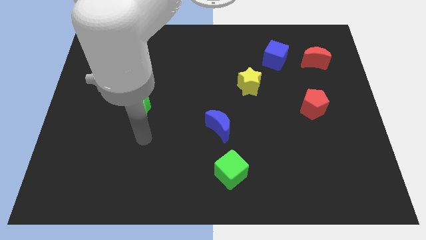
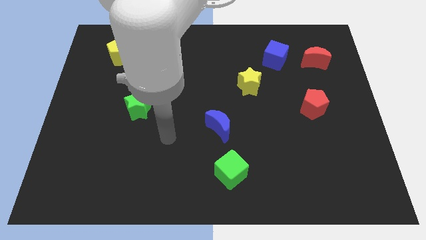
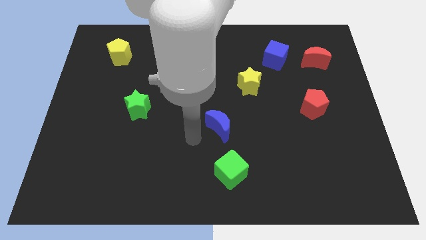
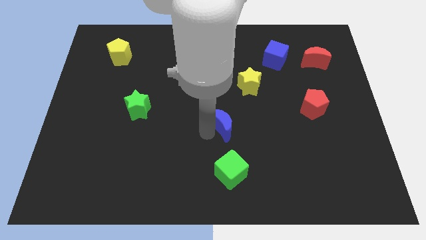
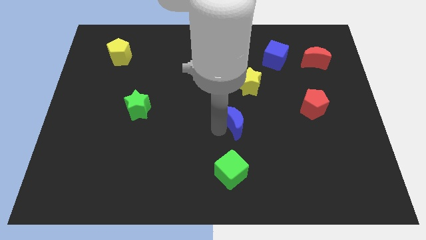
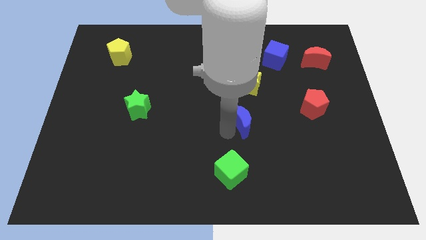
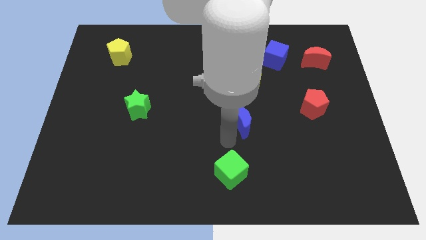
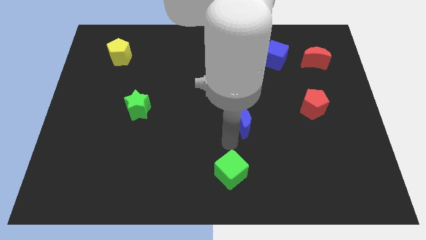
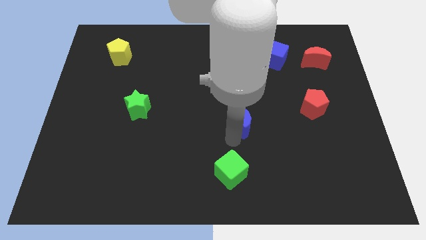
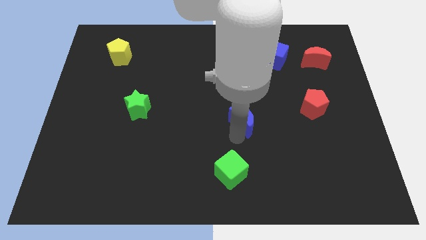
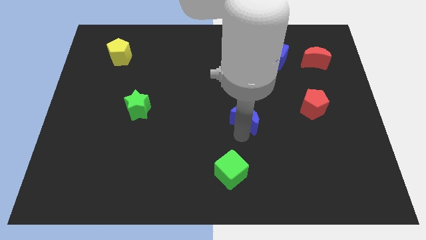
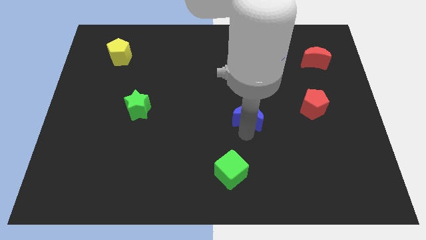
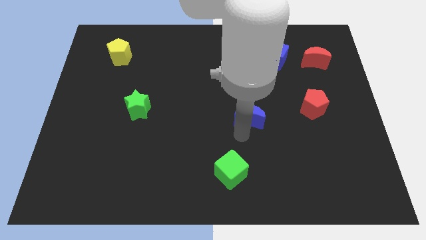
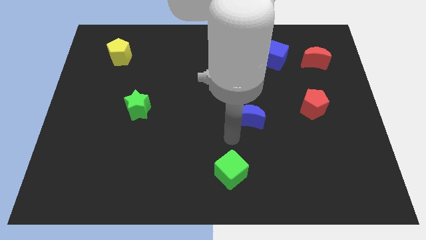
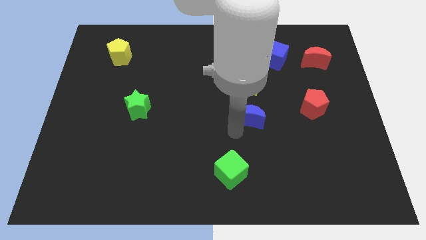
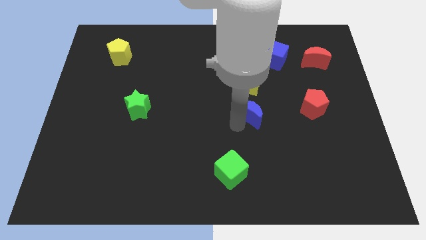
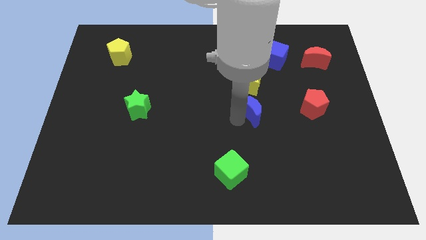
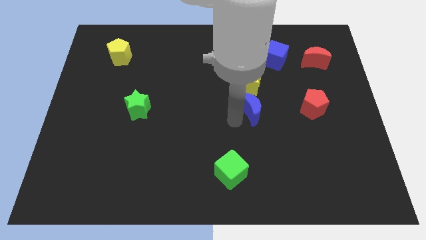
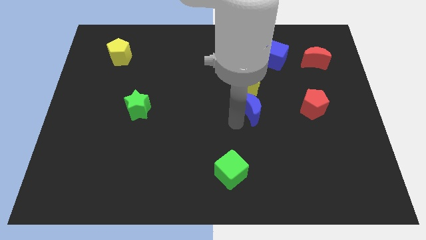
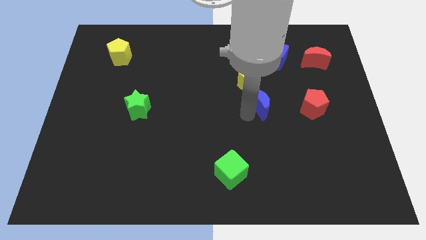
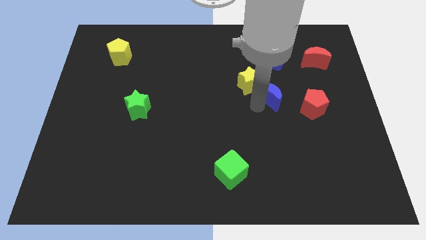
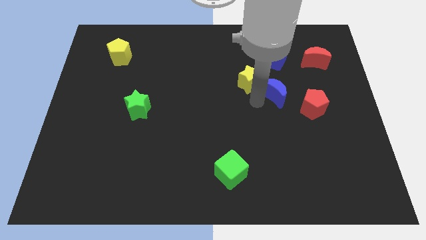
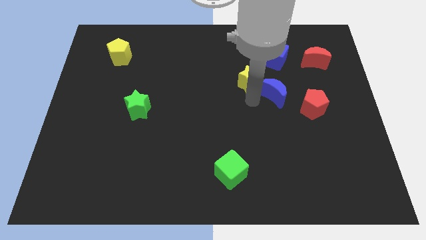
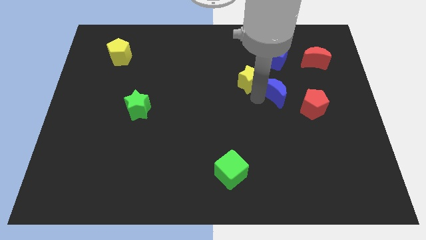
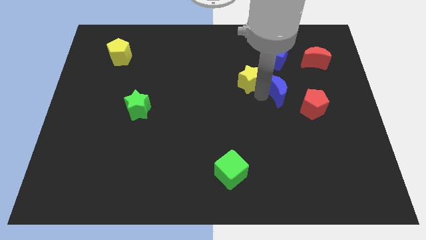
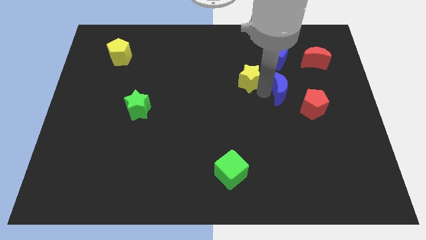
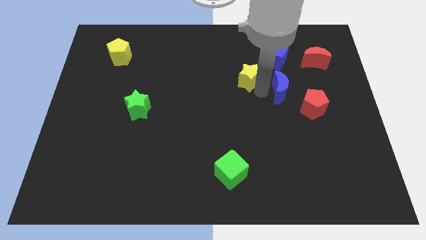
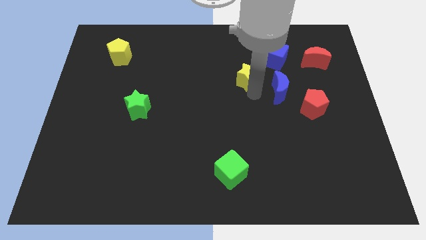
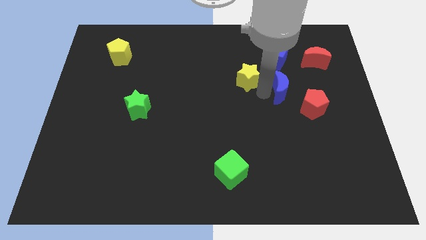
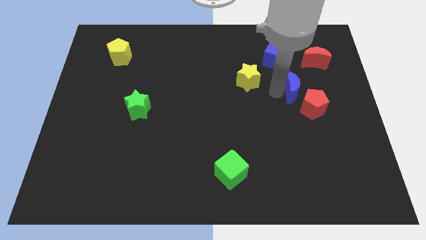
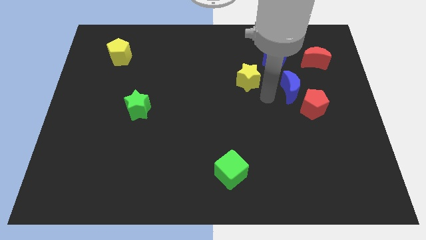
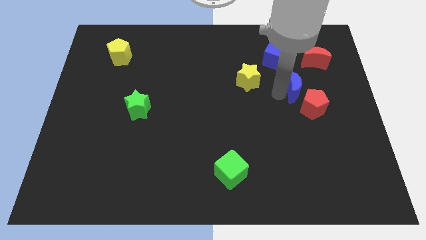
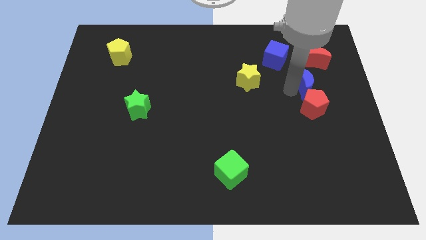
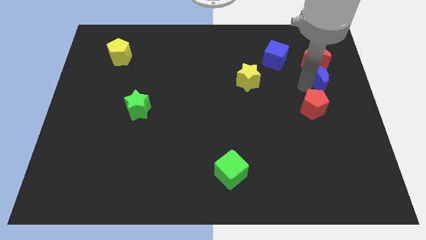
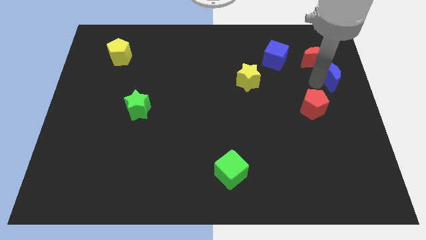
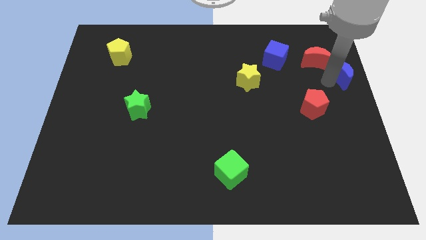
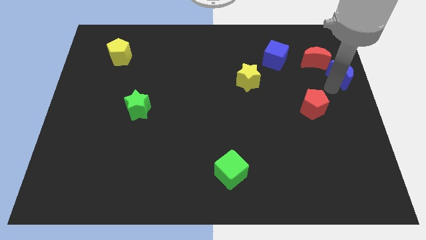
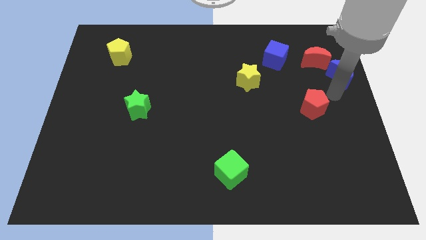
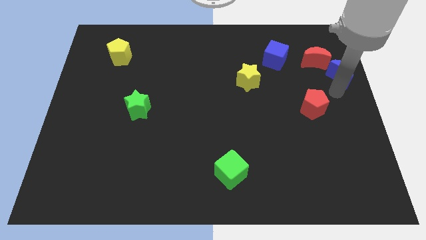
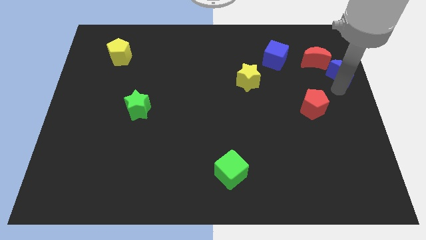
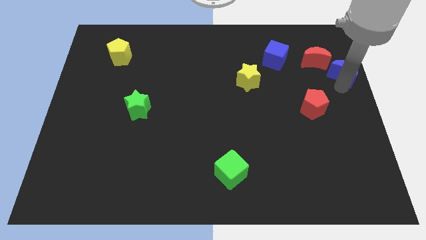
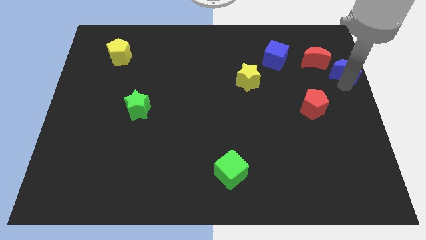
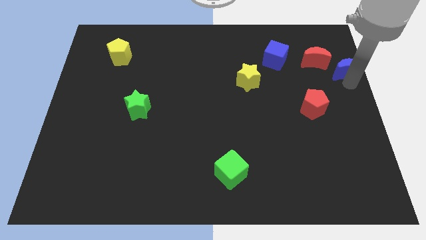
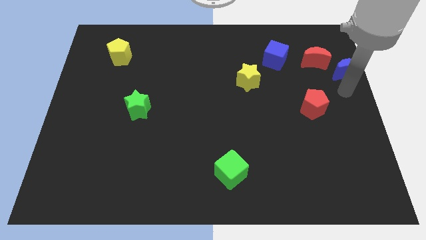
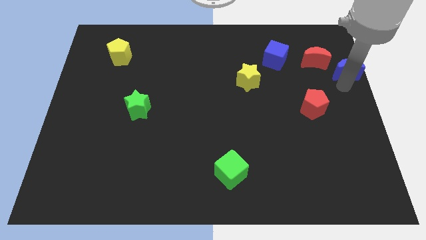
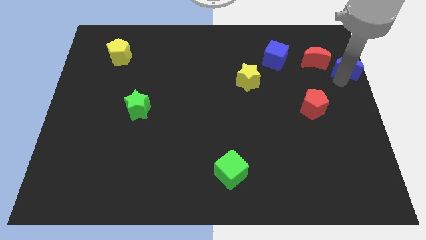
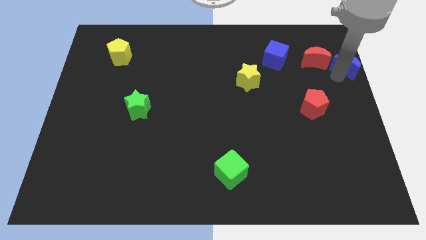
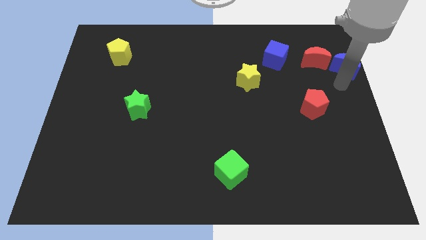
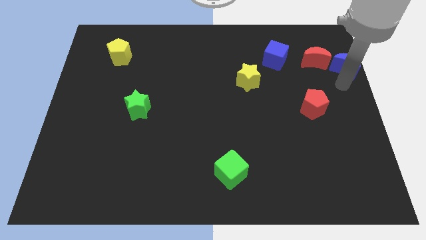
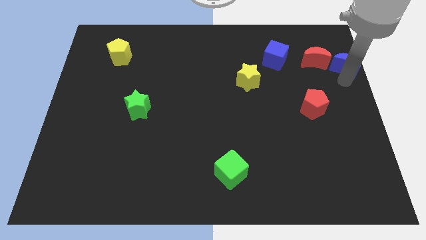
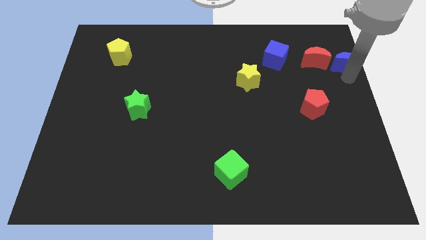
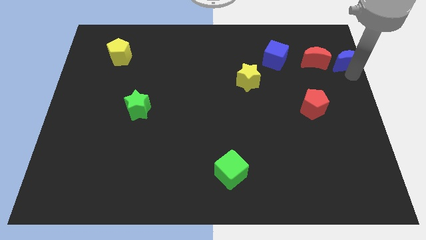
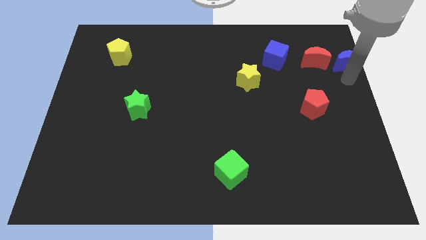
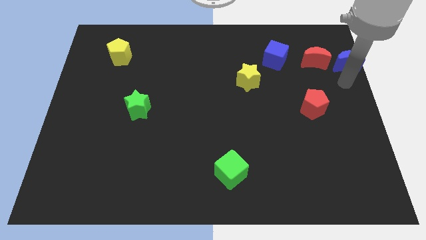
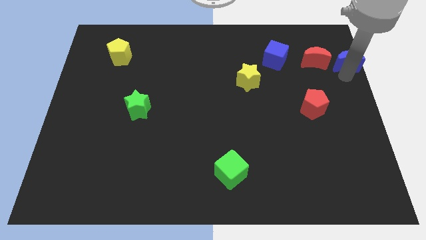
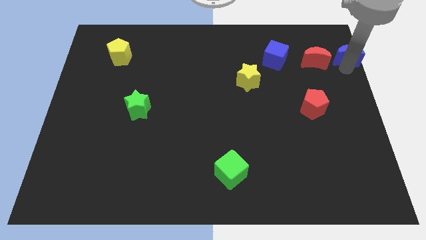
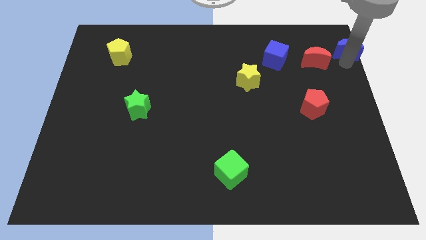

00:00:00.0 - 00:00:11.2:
put the blue moon to the top right

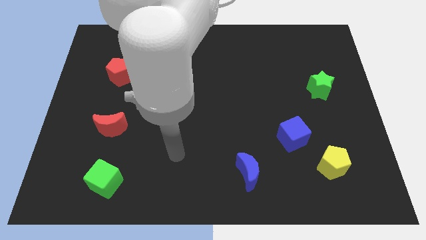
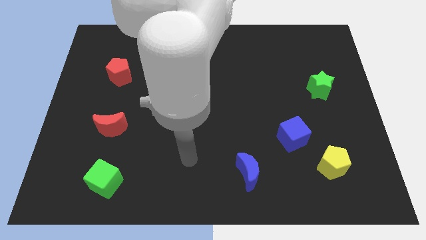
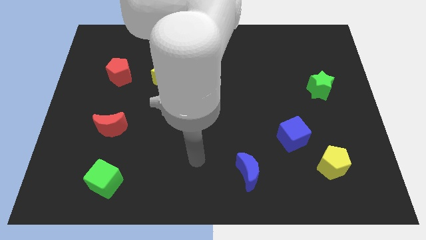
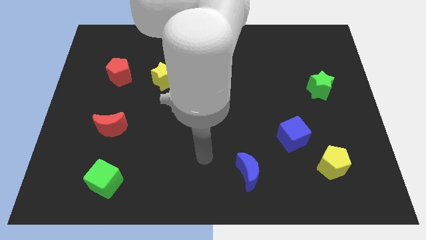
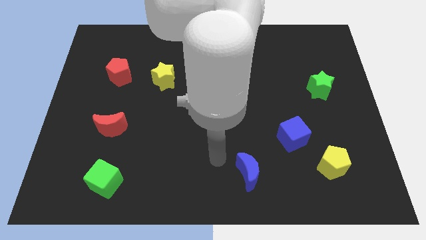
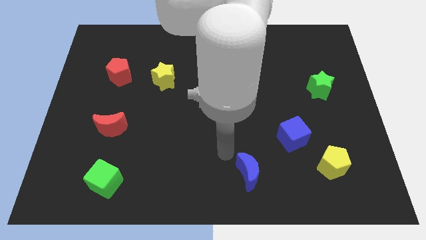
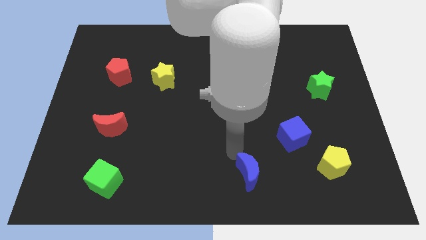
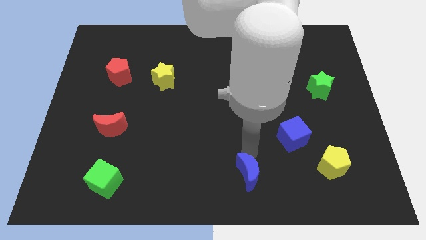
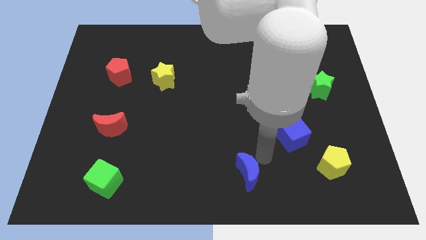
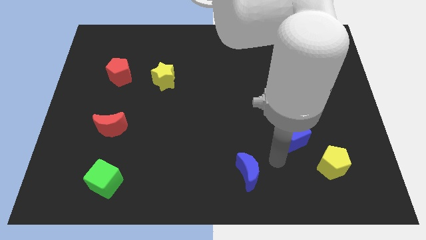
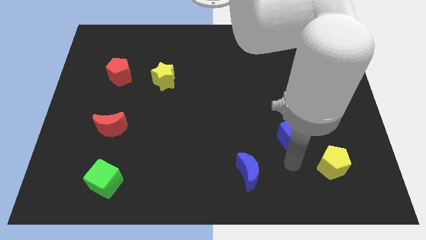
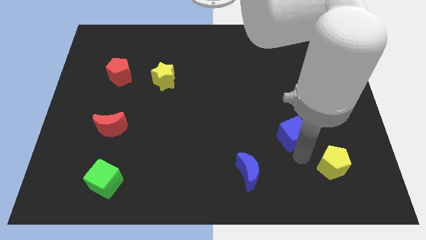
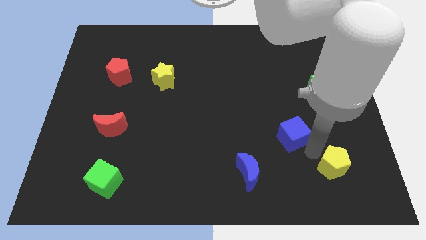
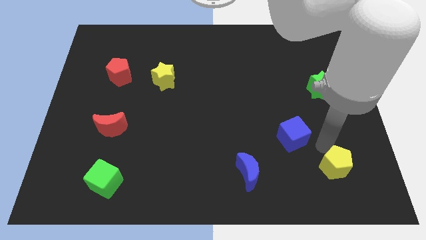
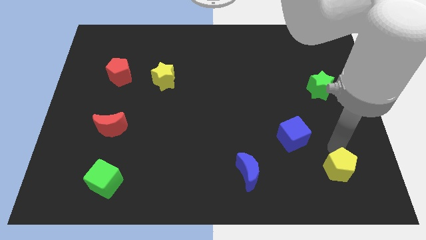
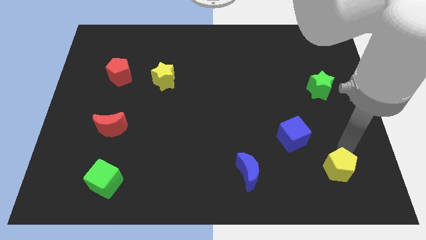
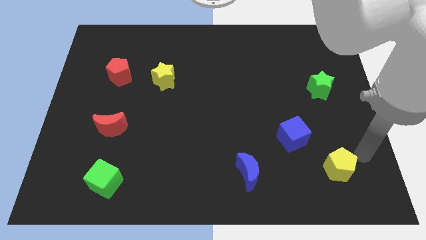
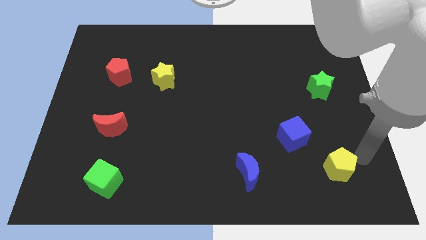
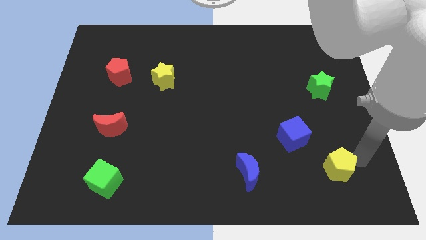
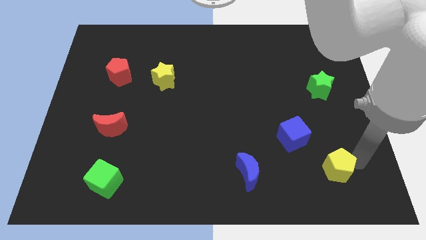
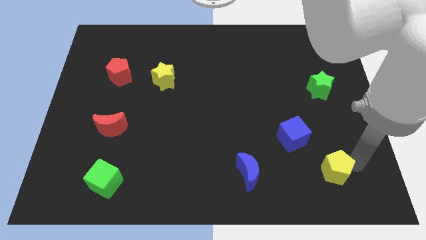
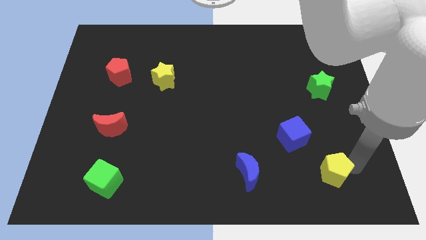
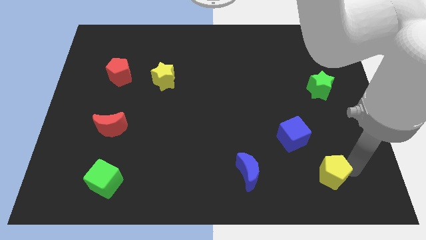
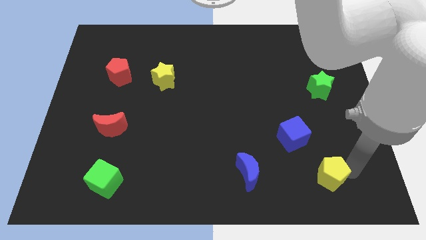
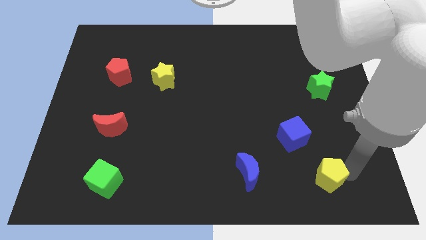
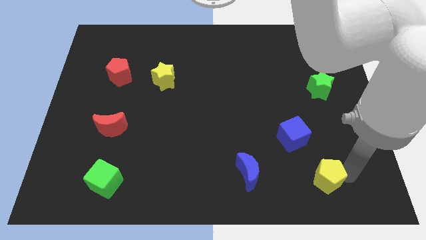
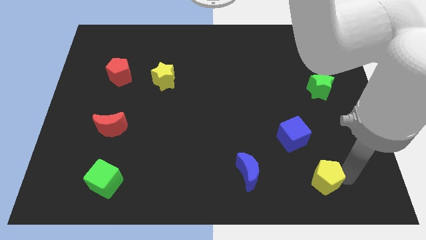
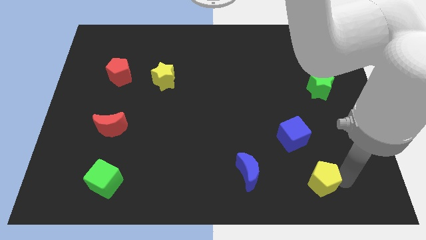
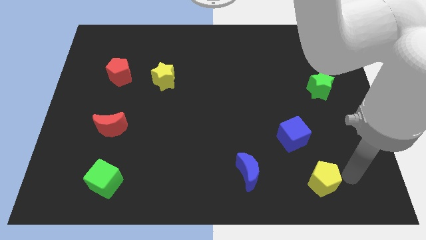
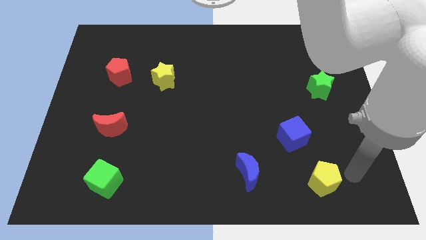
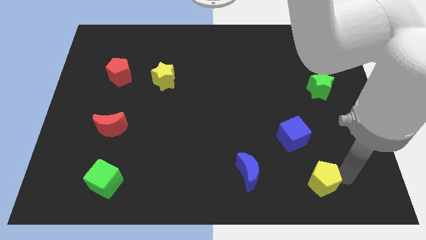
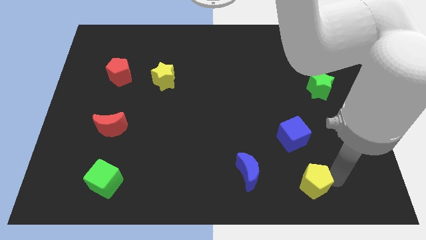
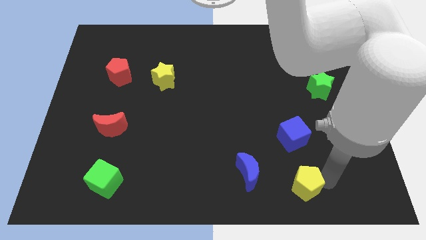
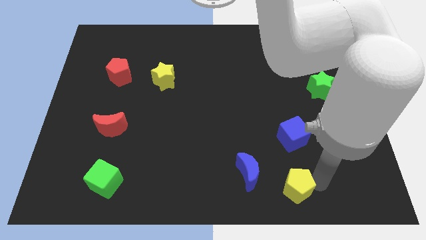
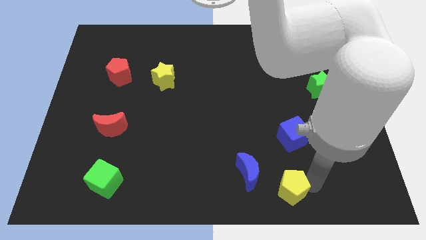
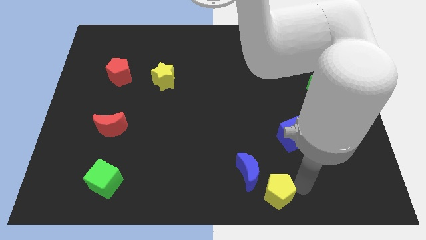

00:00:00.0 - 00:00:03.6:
put the yellow pentagon to the bottom side
